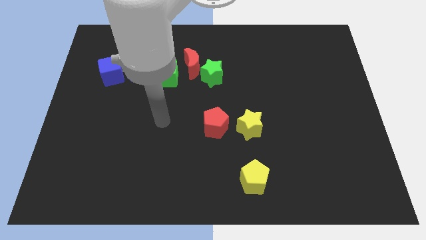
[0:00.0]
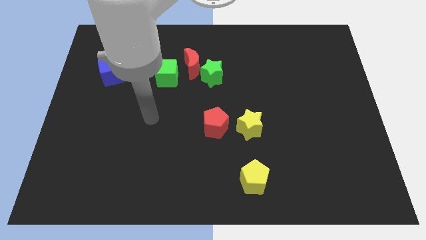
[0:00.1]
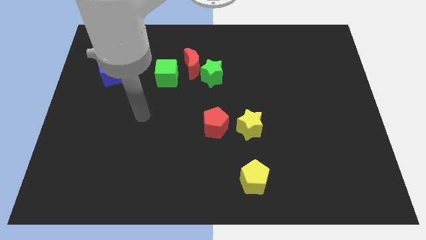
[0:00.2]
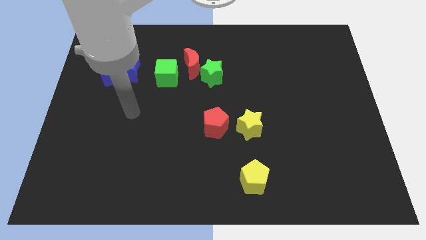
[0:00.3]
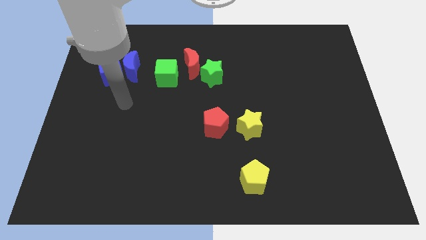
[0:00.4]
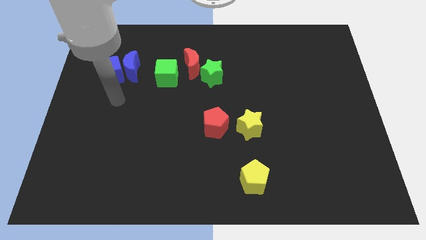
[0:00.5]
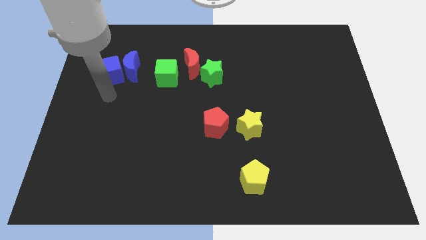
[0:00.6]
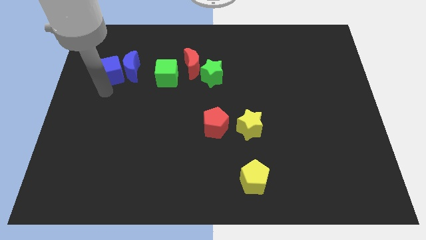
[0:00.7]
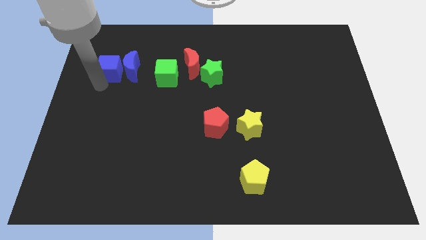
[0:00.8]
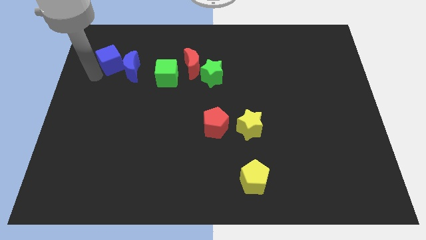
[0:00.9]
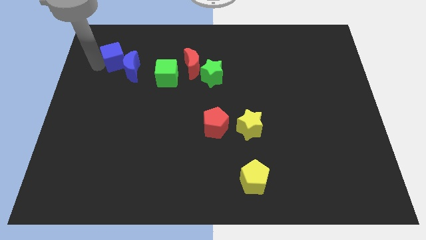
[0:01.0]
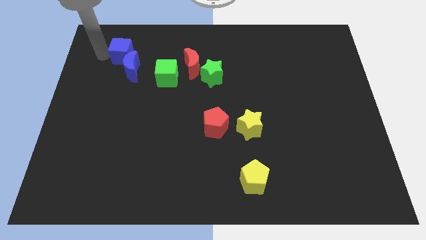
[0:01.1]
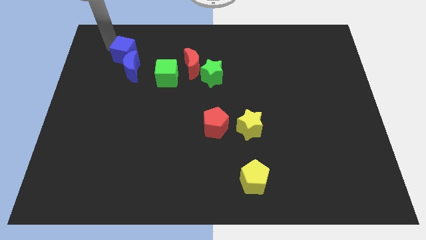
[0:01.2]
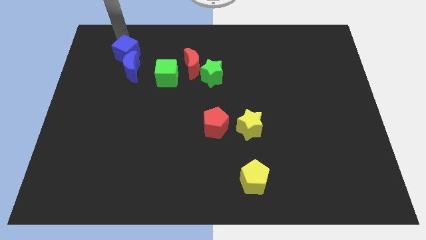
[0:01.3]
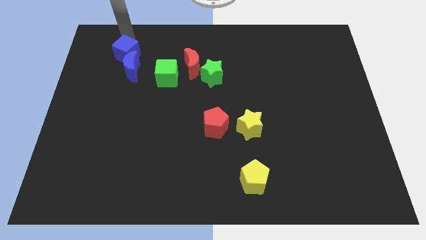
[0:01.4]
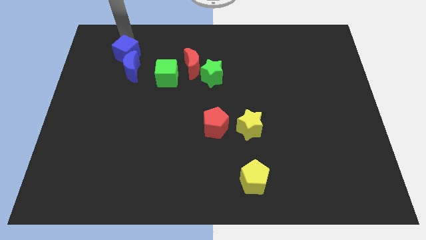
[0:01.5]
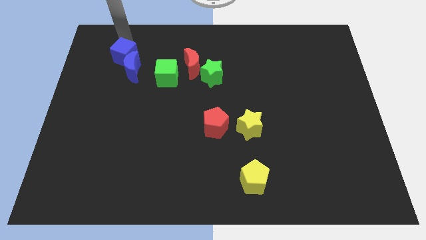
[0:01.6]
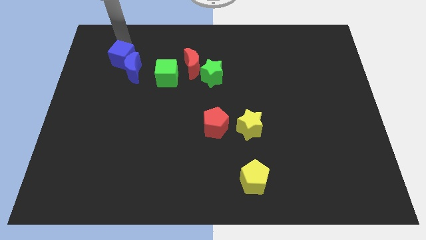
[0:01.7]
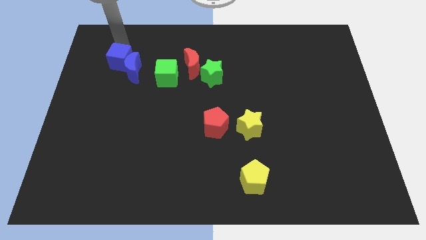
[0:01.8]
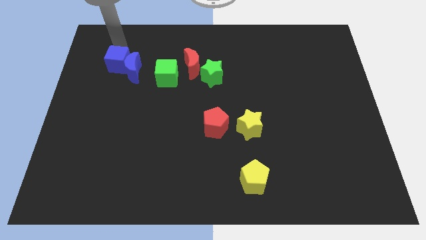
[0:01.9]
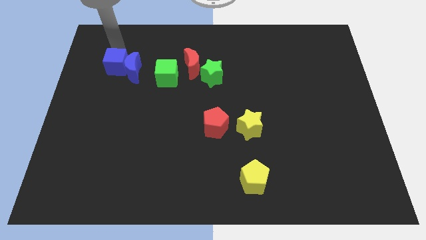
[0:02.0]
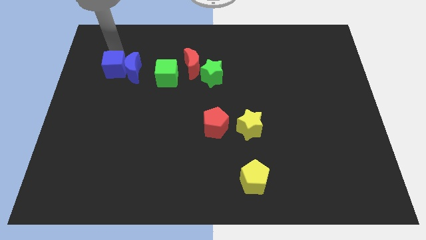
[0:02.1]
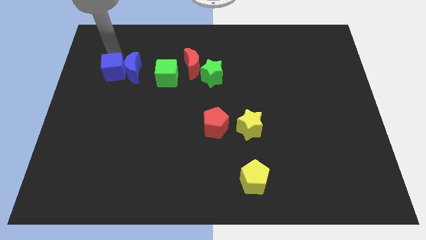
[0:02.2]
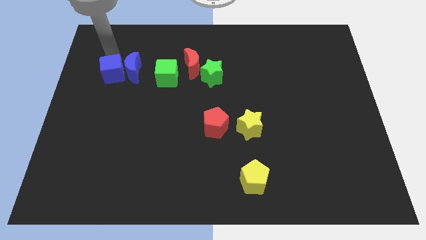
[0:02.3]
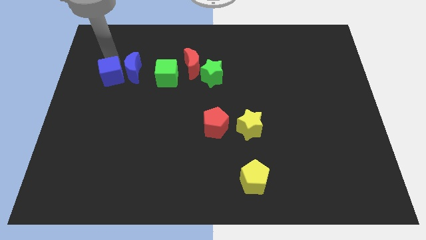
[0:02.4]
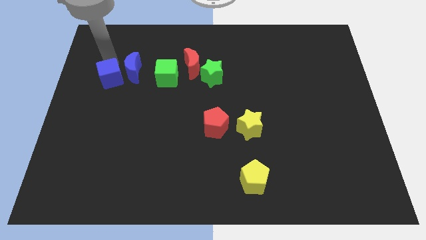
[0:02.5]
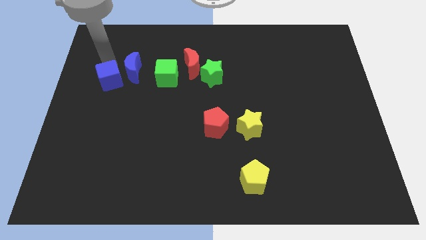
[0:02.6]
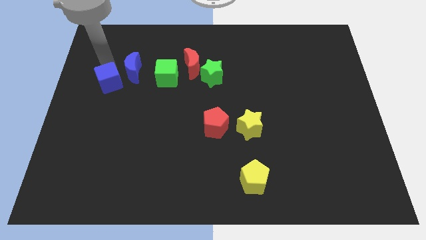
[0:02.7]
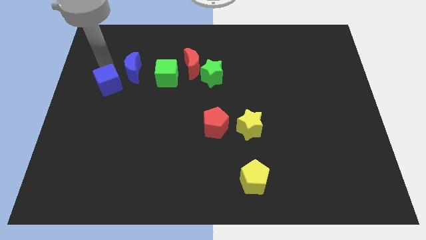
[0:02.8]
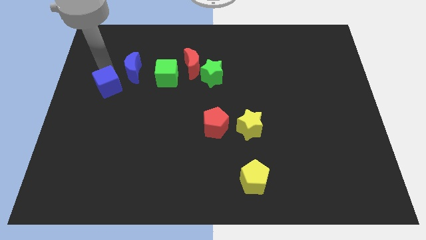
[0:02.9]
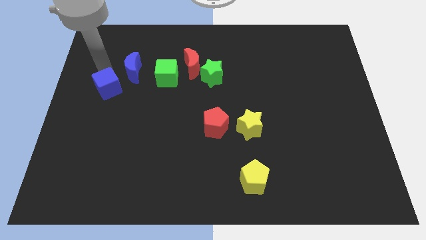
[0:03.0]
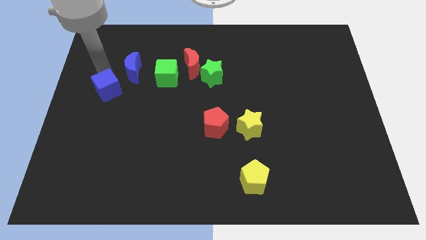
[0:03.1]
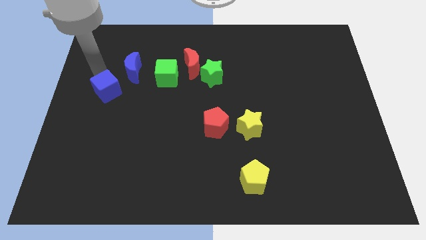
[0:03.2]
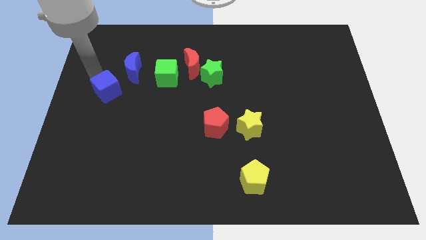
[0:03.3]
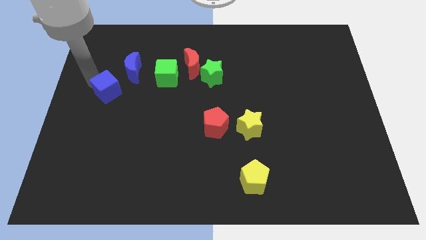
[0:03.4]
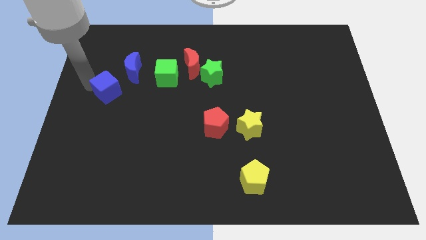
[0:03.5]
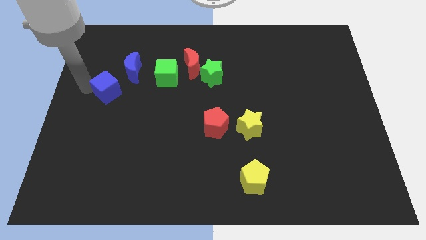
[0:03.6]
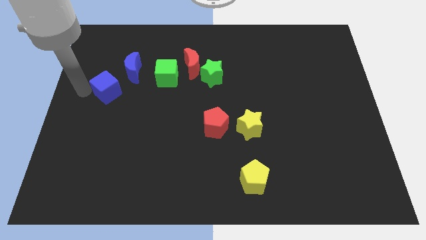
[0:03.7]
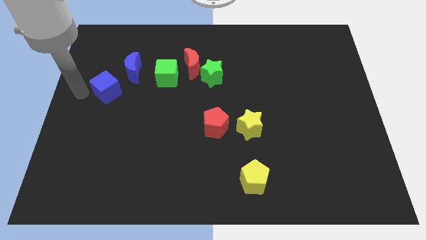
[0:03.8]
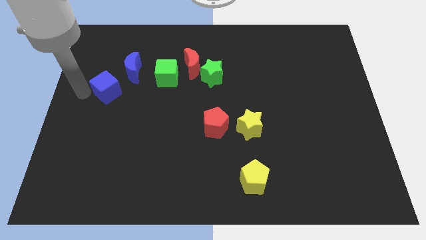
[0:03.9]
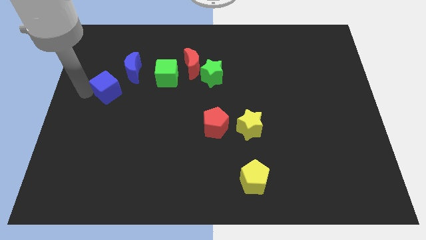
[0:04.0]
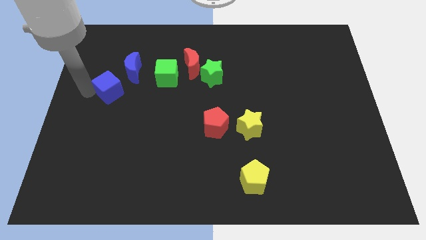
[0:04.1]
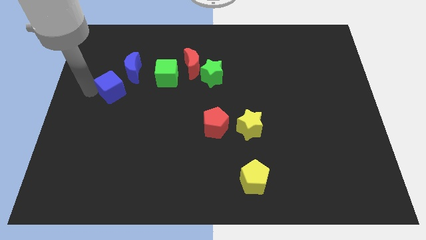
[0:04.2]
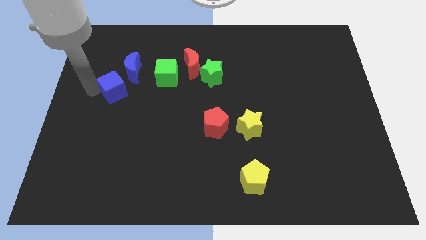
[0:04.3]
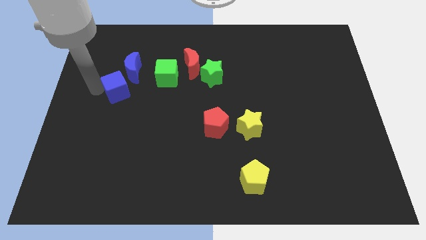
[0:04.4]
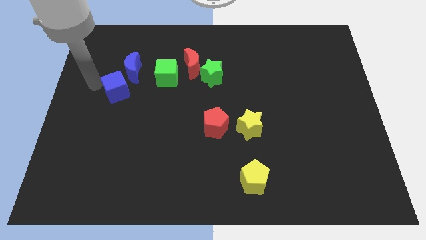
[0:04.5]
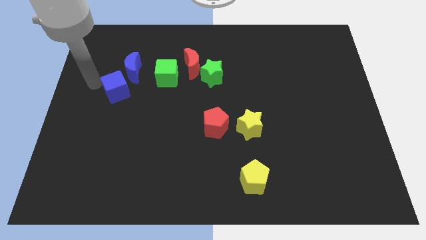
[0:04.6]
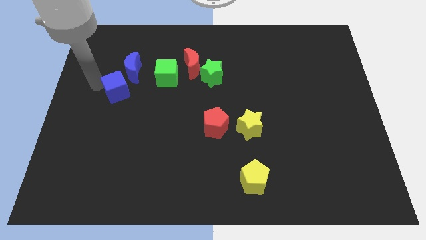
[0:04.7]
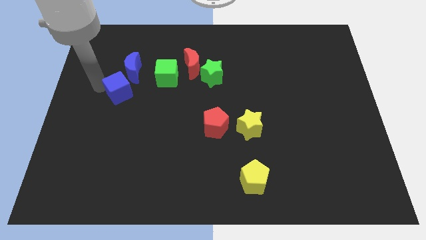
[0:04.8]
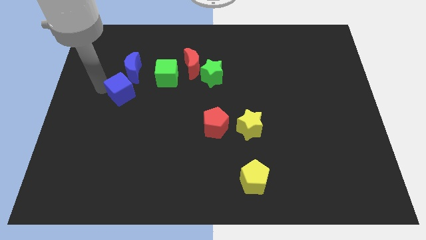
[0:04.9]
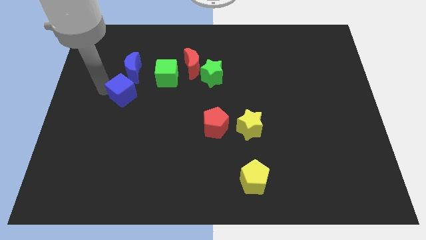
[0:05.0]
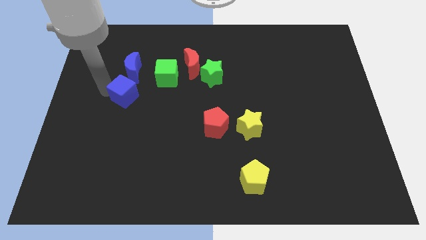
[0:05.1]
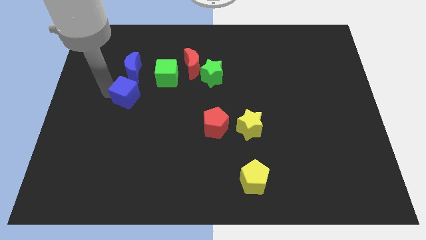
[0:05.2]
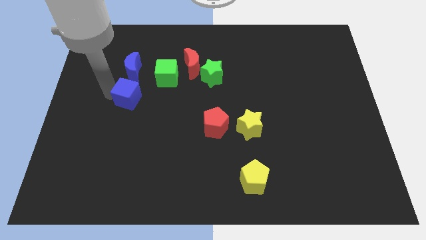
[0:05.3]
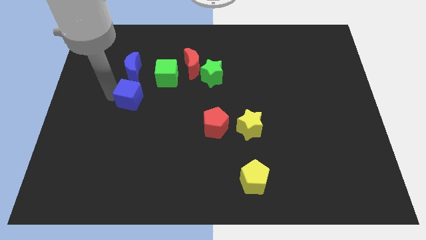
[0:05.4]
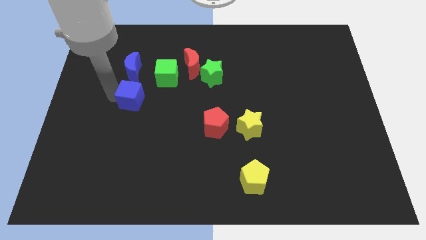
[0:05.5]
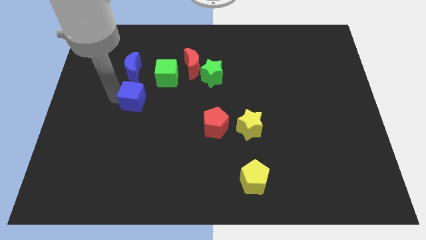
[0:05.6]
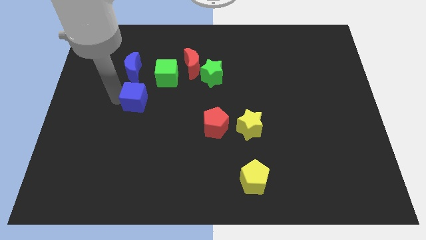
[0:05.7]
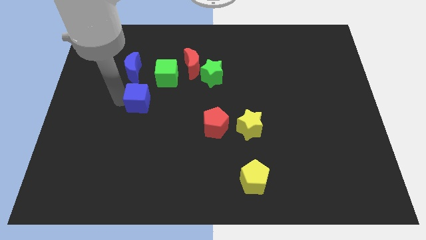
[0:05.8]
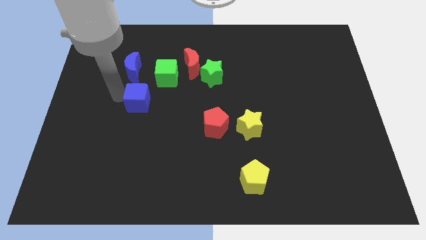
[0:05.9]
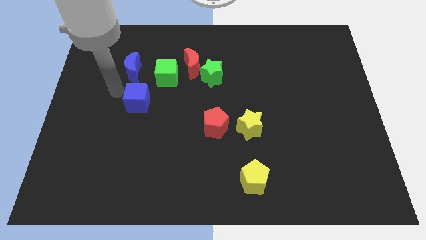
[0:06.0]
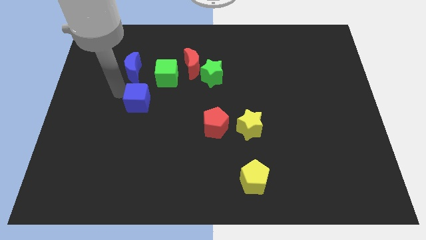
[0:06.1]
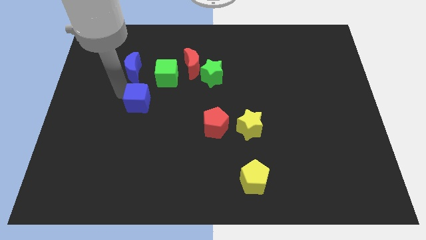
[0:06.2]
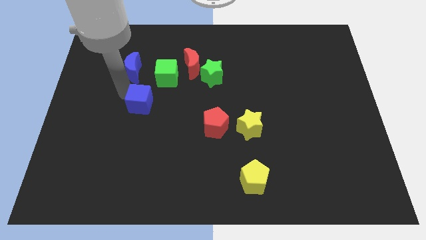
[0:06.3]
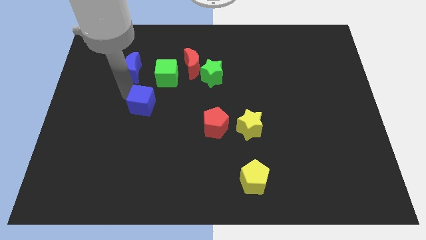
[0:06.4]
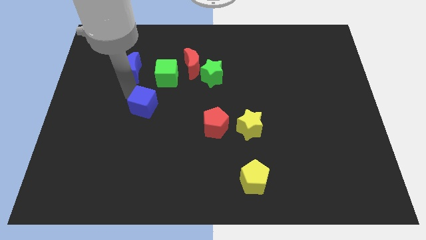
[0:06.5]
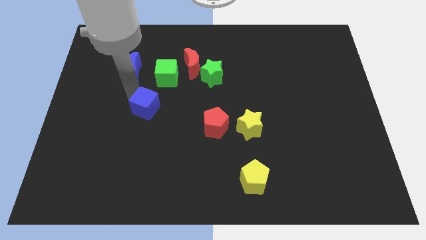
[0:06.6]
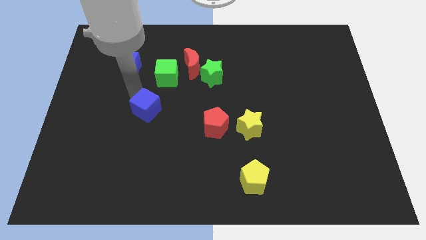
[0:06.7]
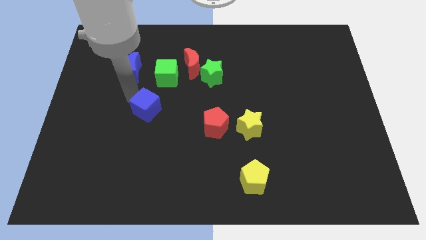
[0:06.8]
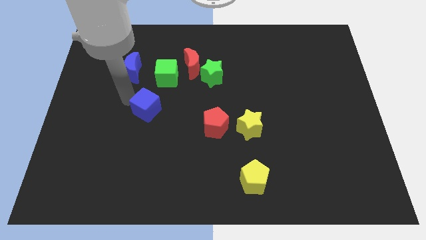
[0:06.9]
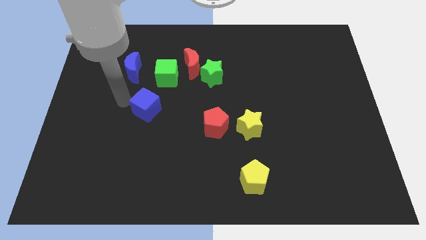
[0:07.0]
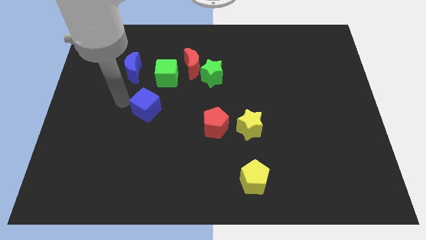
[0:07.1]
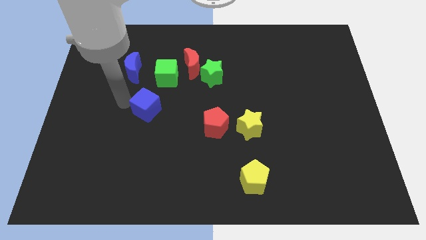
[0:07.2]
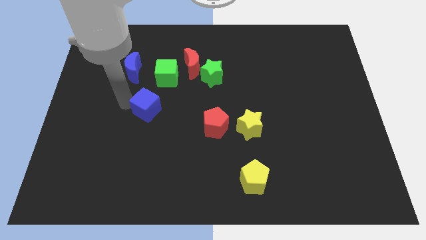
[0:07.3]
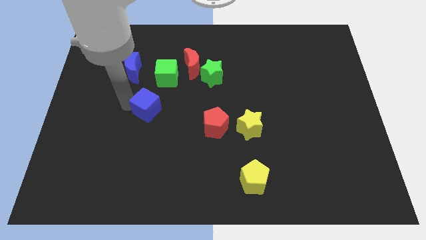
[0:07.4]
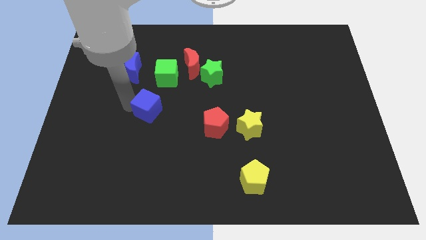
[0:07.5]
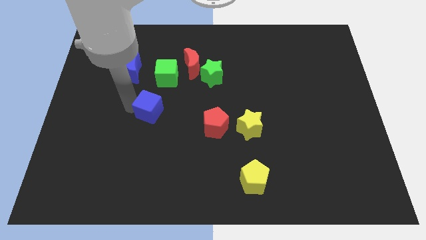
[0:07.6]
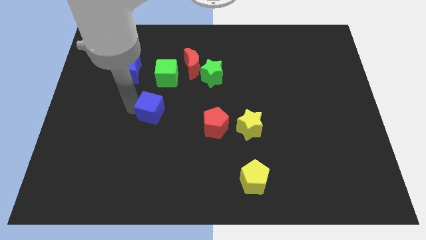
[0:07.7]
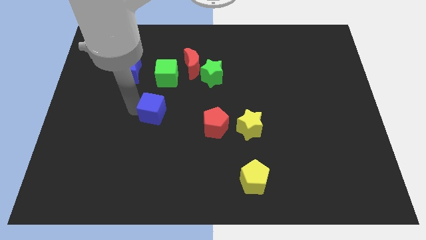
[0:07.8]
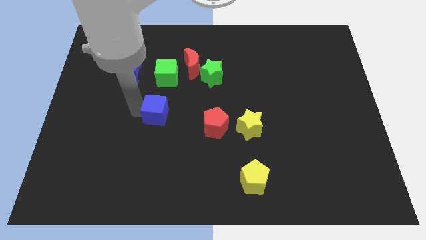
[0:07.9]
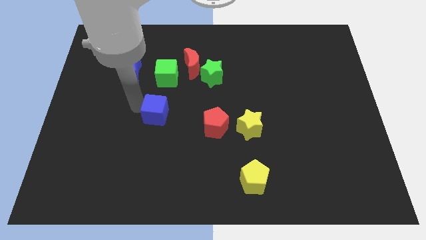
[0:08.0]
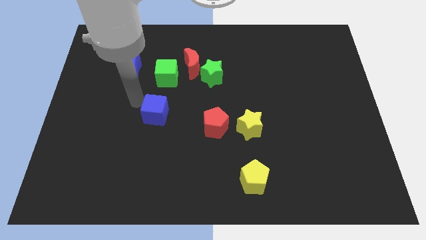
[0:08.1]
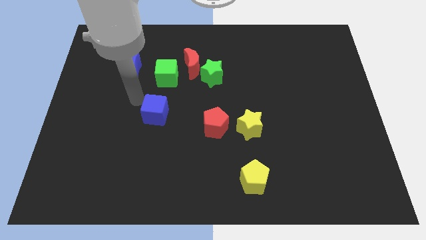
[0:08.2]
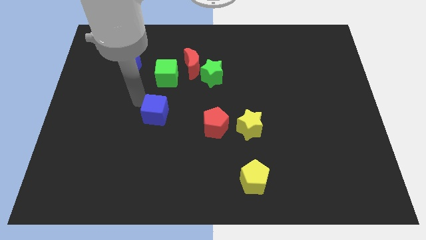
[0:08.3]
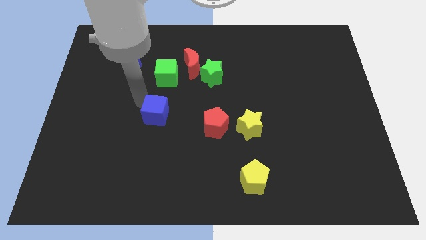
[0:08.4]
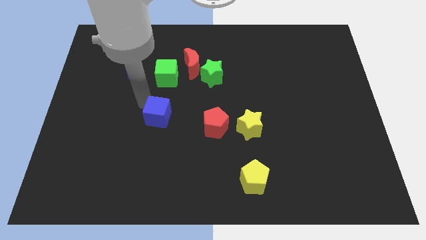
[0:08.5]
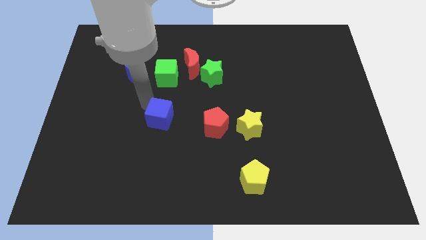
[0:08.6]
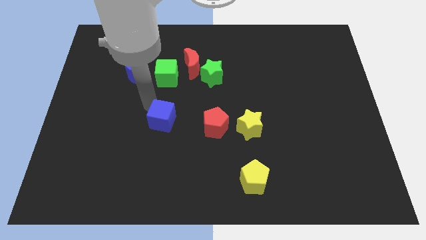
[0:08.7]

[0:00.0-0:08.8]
slide the blue cube diagonally down and to the right
